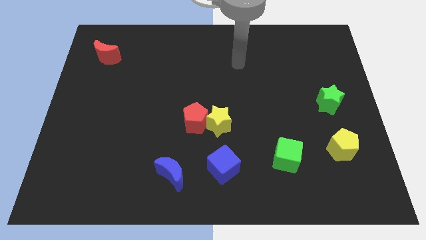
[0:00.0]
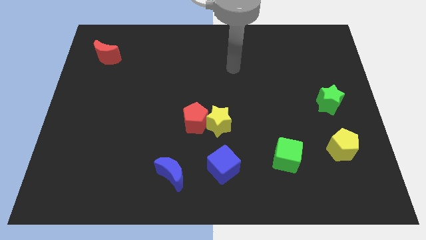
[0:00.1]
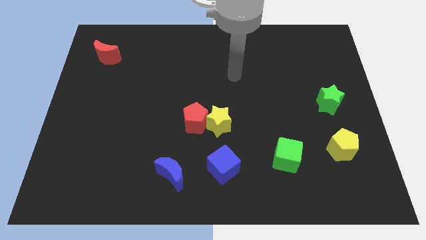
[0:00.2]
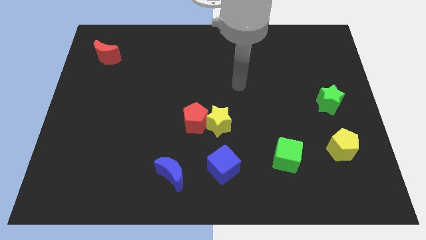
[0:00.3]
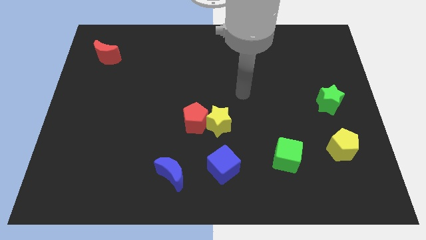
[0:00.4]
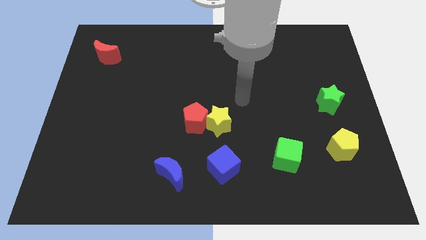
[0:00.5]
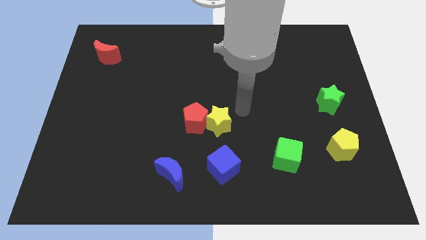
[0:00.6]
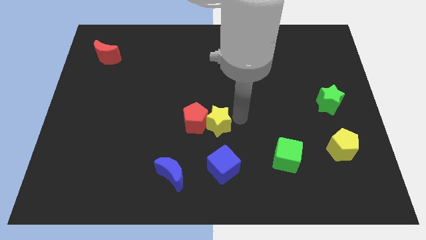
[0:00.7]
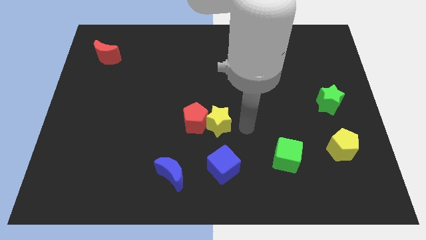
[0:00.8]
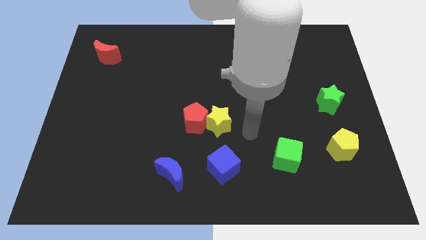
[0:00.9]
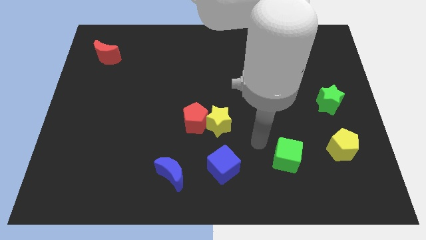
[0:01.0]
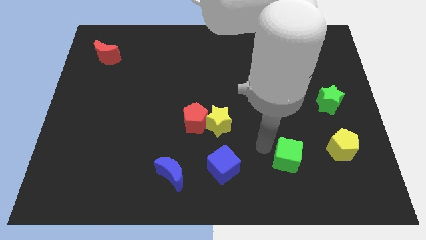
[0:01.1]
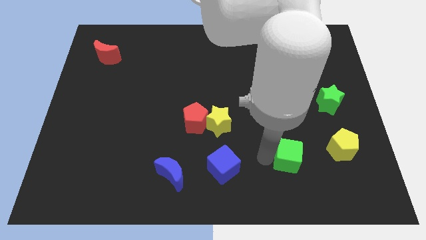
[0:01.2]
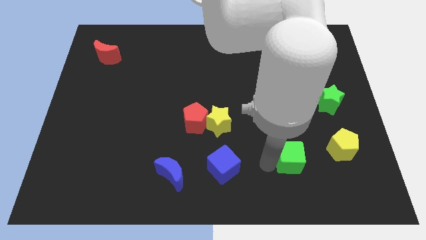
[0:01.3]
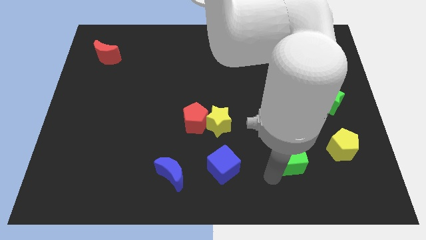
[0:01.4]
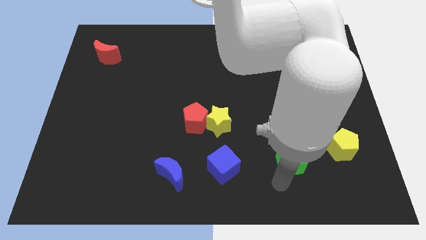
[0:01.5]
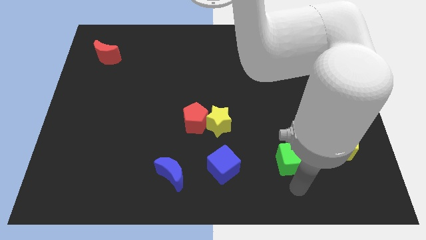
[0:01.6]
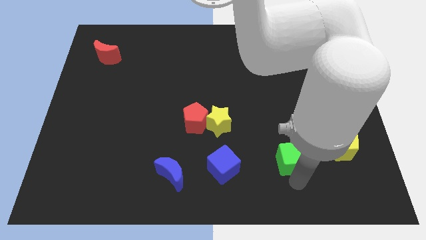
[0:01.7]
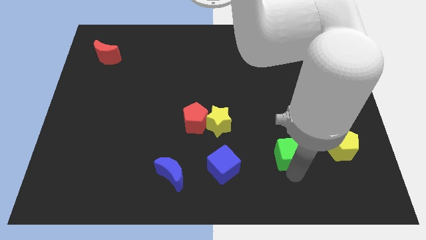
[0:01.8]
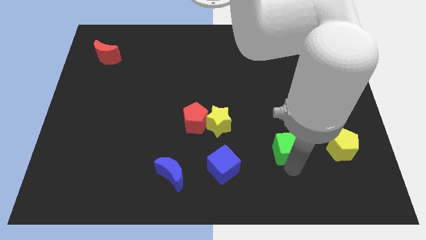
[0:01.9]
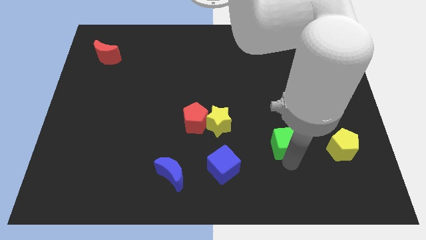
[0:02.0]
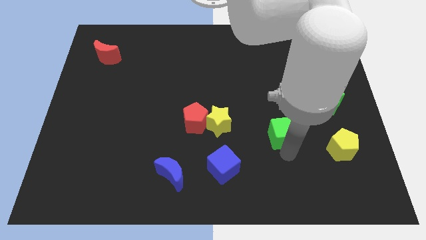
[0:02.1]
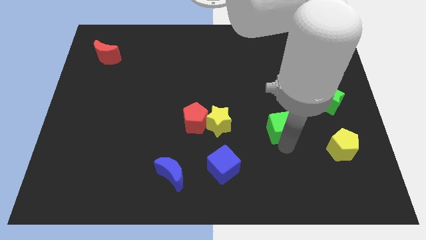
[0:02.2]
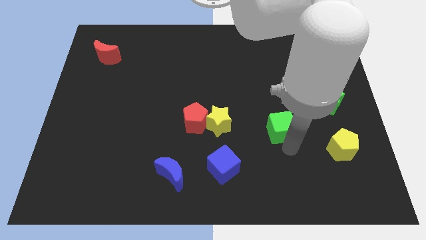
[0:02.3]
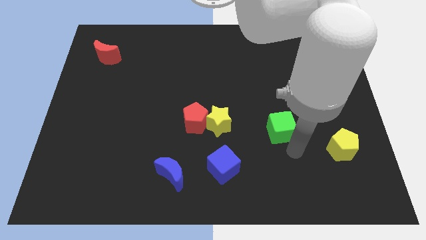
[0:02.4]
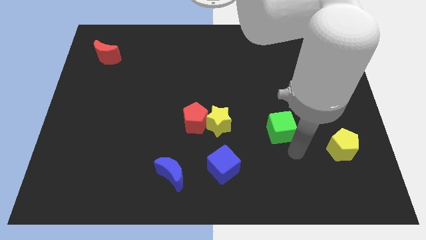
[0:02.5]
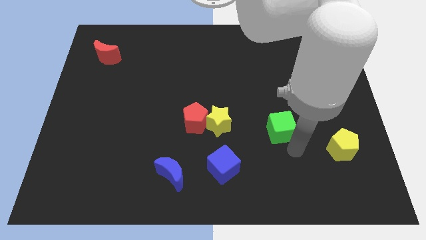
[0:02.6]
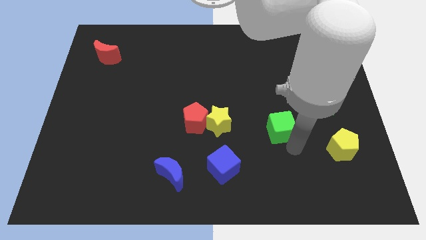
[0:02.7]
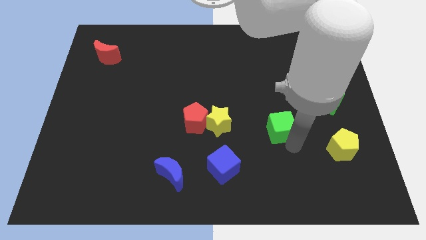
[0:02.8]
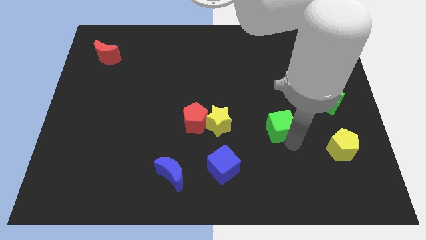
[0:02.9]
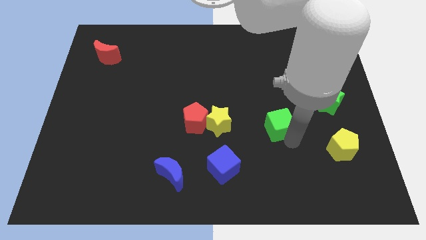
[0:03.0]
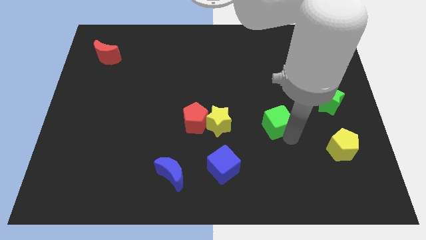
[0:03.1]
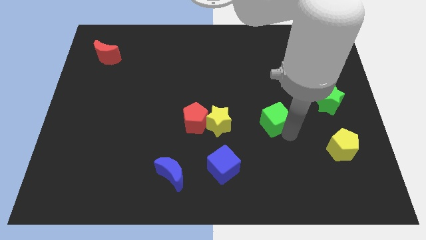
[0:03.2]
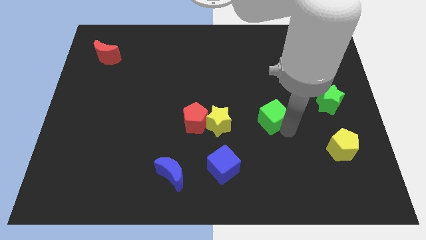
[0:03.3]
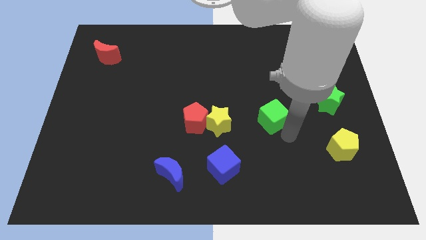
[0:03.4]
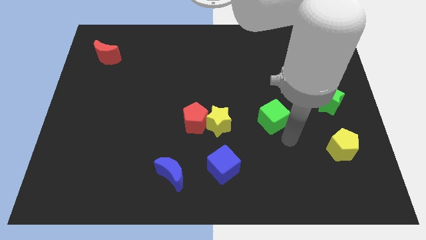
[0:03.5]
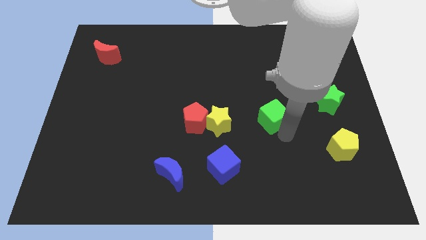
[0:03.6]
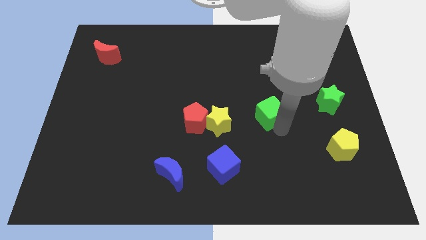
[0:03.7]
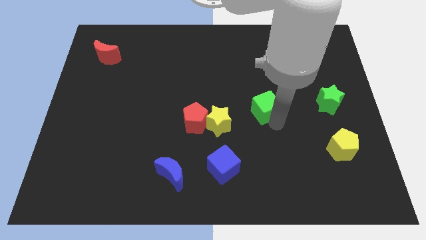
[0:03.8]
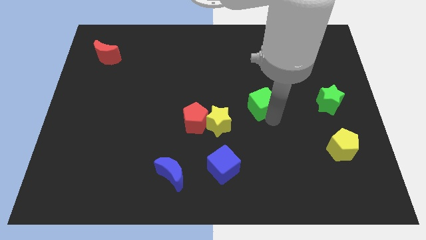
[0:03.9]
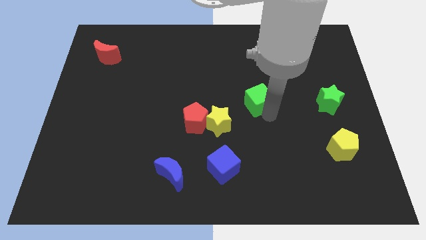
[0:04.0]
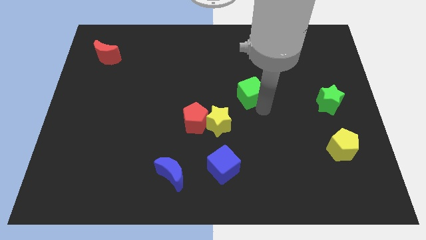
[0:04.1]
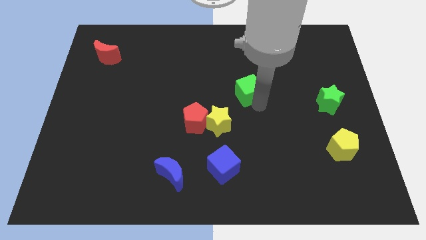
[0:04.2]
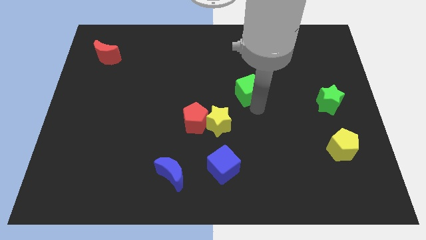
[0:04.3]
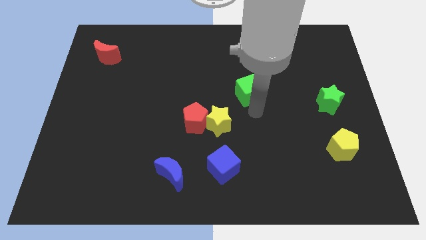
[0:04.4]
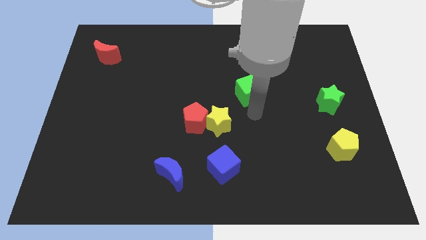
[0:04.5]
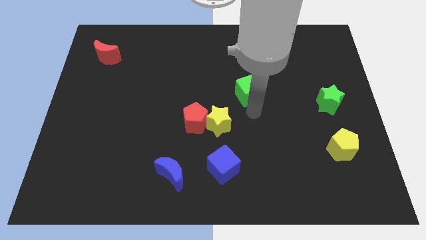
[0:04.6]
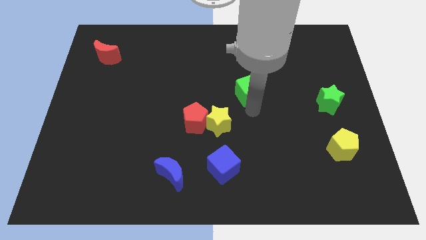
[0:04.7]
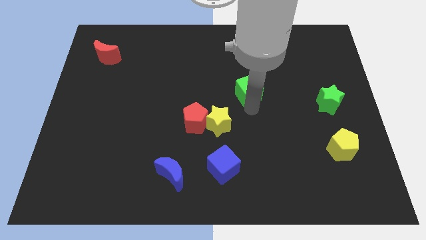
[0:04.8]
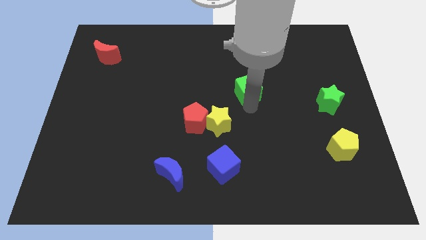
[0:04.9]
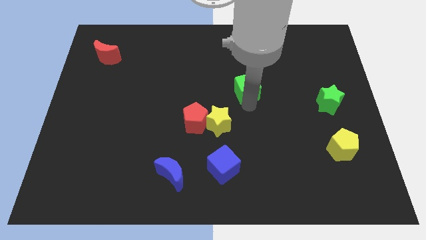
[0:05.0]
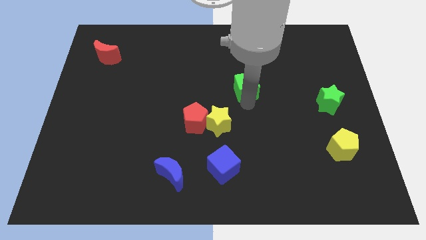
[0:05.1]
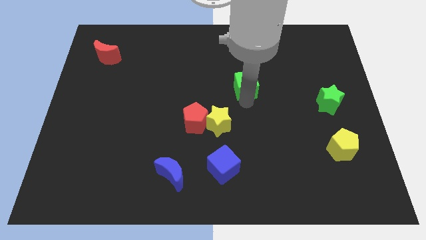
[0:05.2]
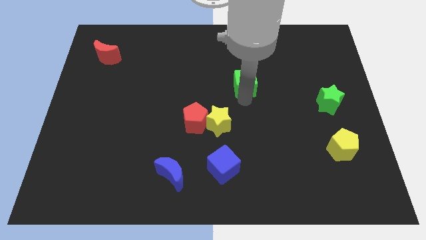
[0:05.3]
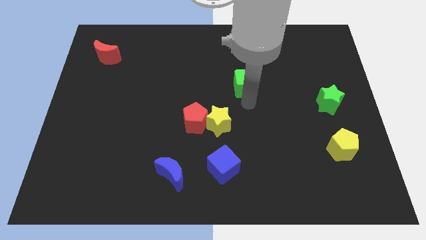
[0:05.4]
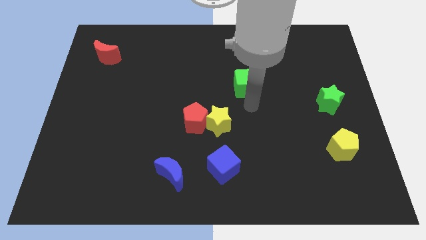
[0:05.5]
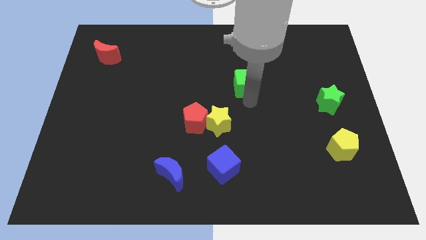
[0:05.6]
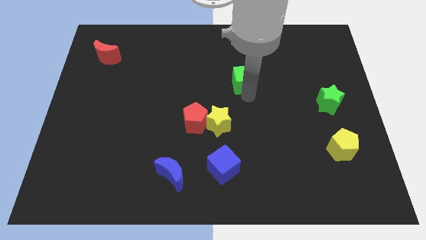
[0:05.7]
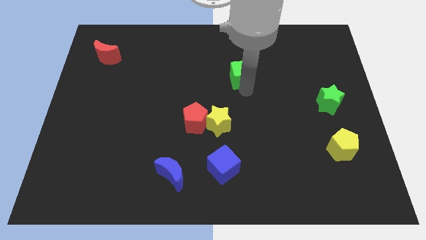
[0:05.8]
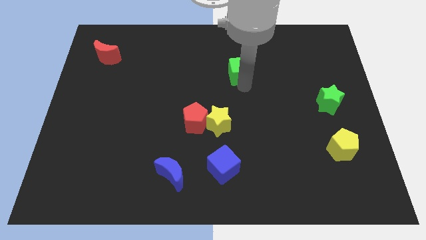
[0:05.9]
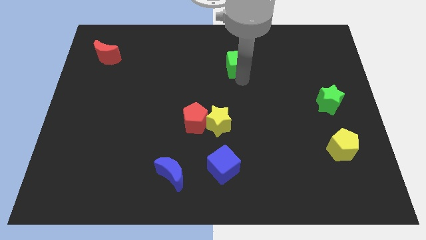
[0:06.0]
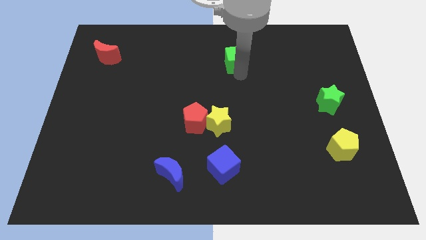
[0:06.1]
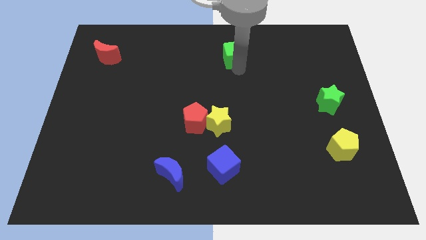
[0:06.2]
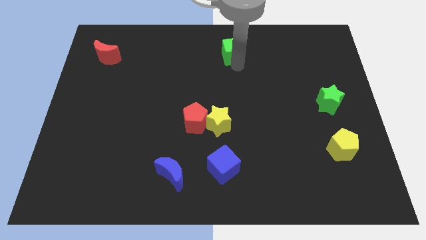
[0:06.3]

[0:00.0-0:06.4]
move the green cube to the towards your base

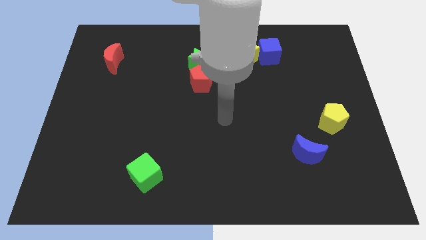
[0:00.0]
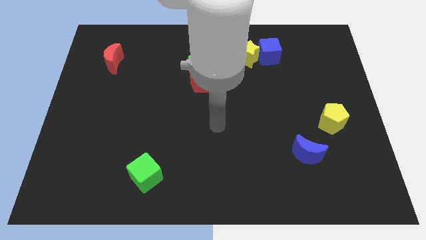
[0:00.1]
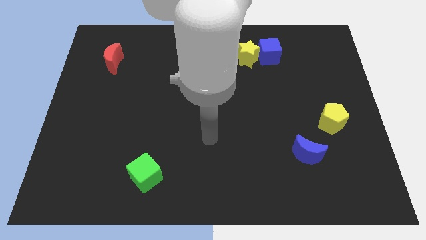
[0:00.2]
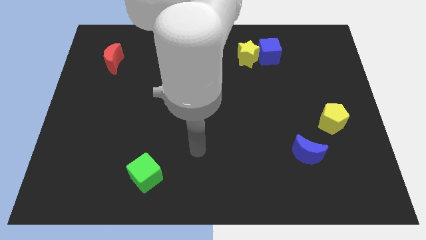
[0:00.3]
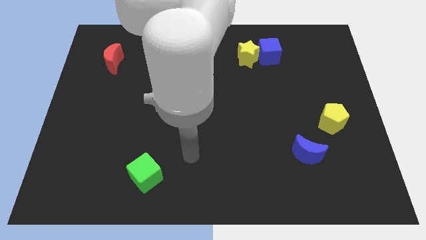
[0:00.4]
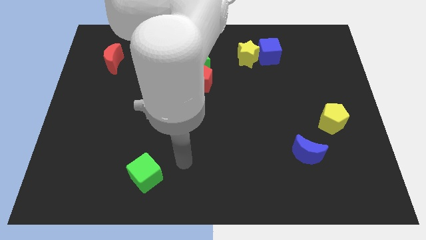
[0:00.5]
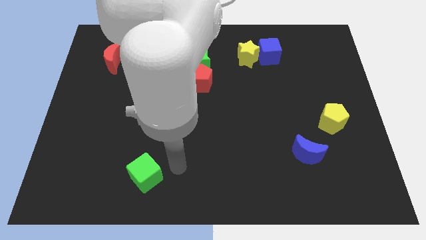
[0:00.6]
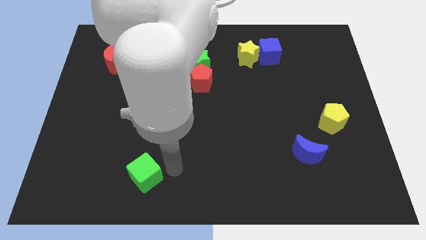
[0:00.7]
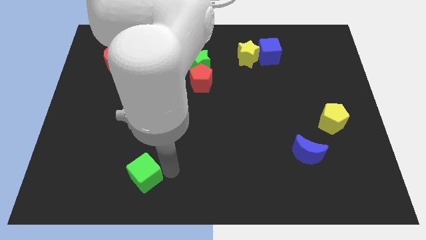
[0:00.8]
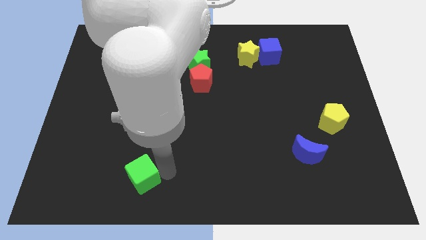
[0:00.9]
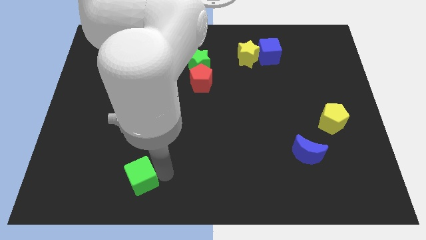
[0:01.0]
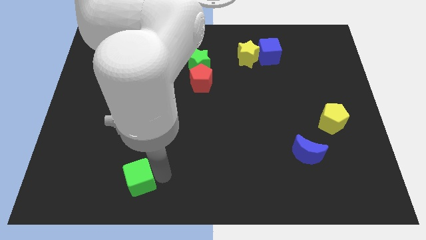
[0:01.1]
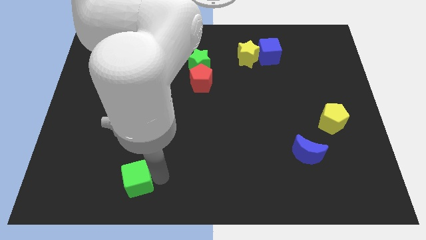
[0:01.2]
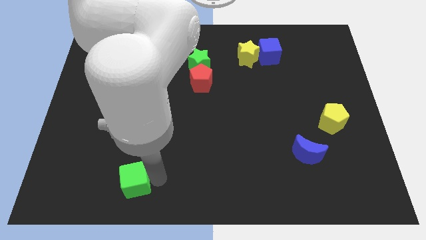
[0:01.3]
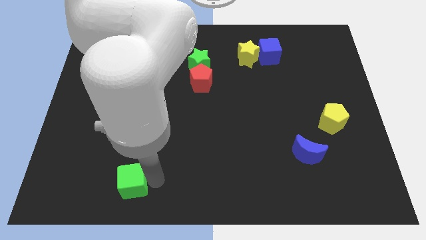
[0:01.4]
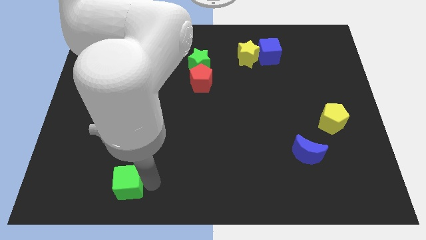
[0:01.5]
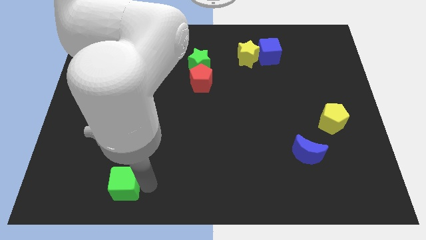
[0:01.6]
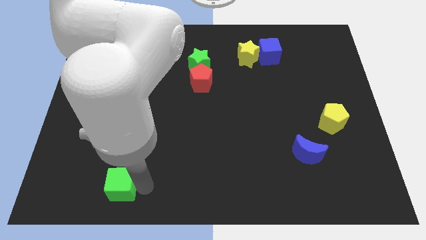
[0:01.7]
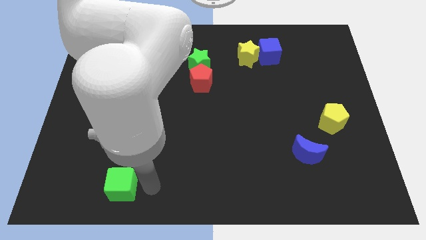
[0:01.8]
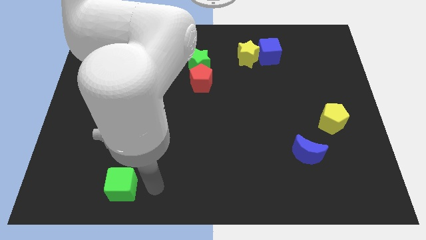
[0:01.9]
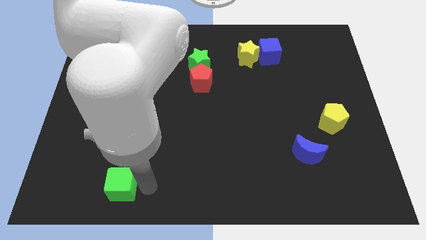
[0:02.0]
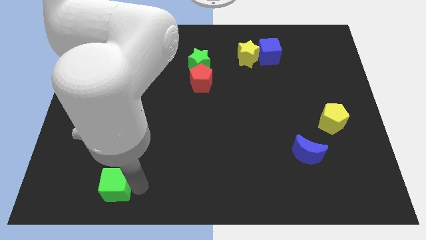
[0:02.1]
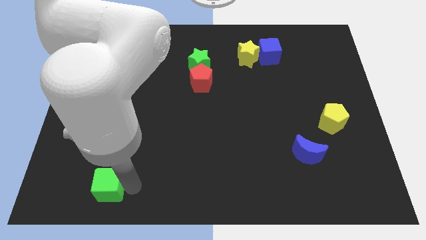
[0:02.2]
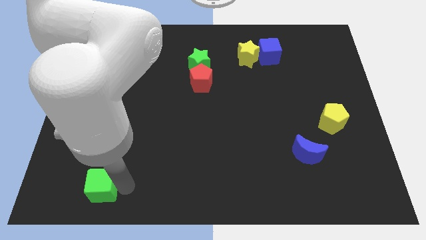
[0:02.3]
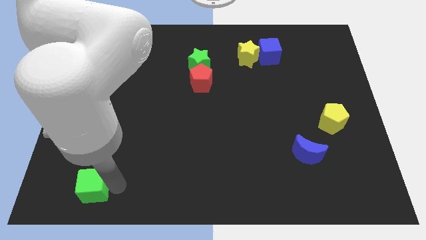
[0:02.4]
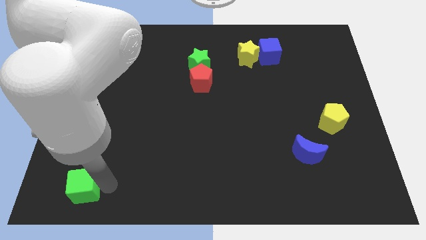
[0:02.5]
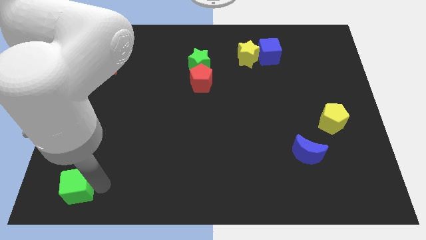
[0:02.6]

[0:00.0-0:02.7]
move the green cube to the bottom left corner
